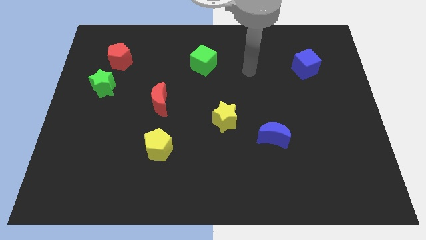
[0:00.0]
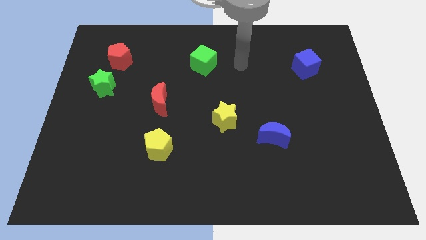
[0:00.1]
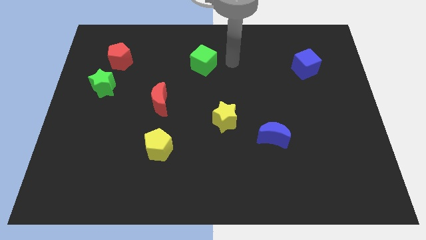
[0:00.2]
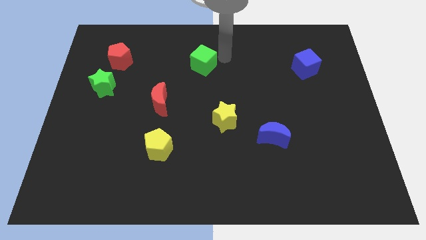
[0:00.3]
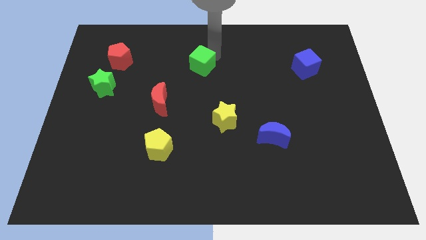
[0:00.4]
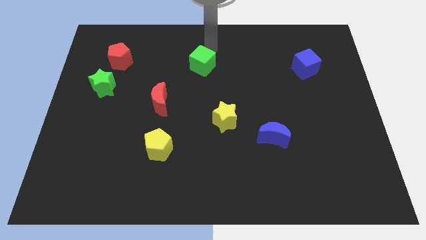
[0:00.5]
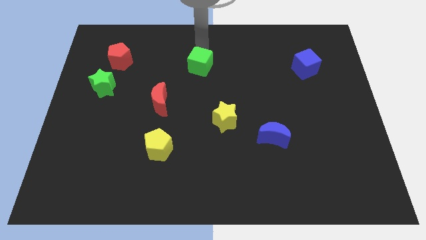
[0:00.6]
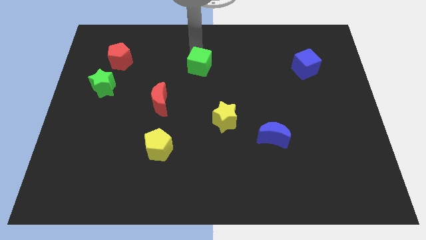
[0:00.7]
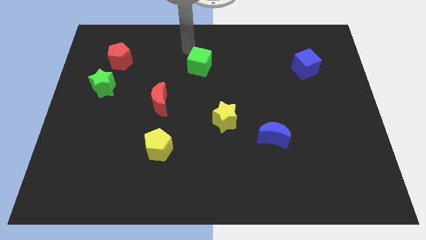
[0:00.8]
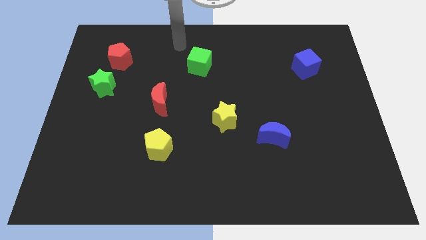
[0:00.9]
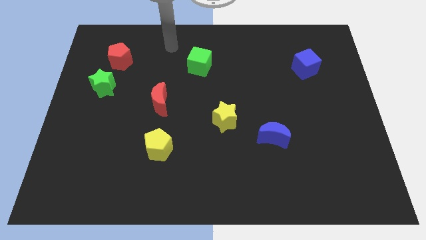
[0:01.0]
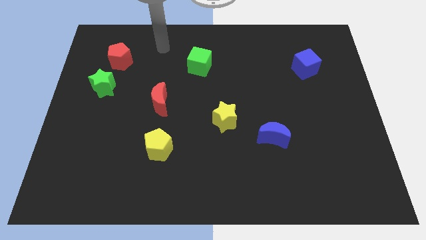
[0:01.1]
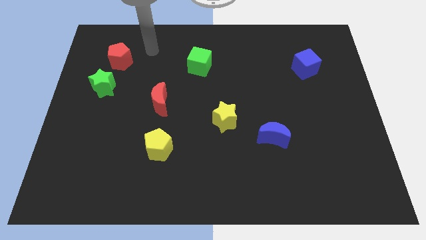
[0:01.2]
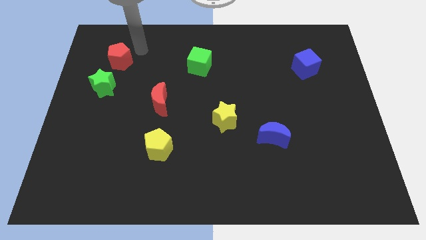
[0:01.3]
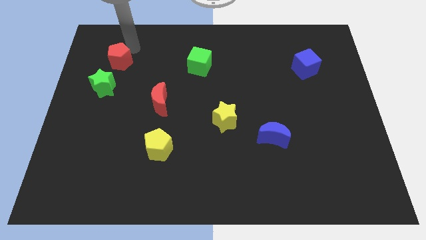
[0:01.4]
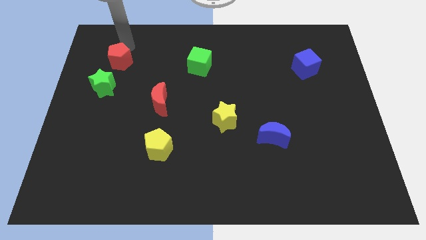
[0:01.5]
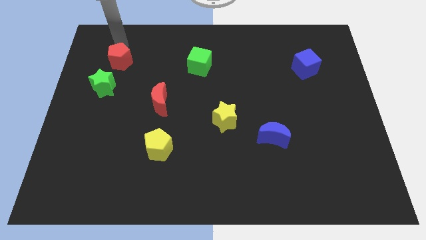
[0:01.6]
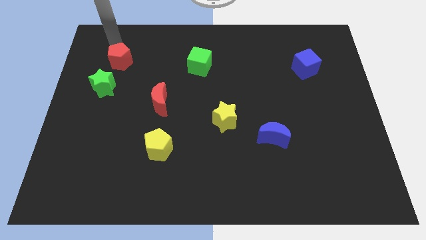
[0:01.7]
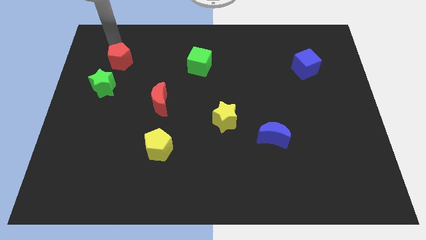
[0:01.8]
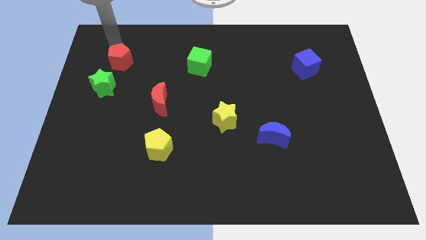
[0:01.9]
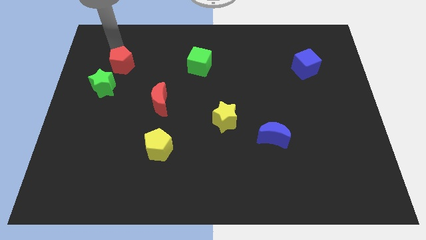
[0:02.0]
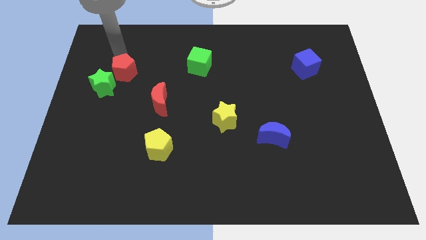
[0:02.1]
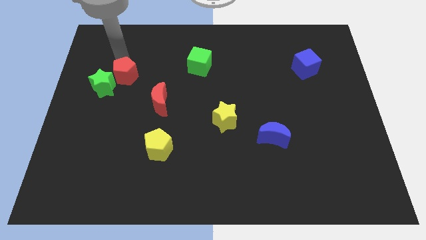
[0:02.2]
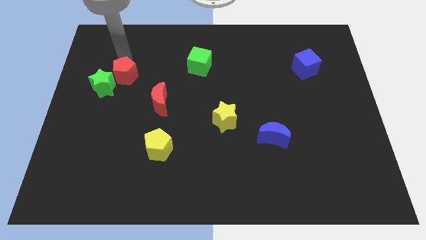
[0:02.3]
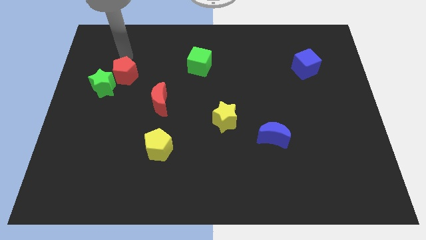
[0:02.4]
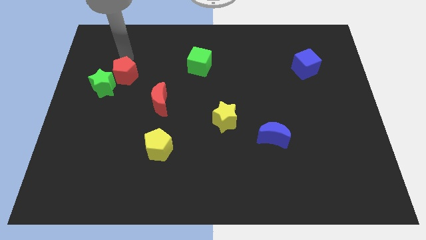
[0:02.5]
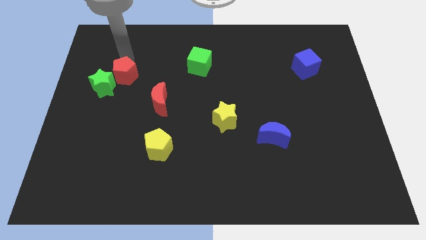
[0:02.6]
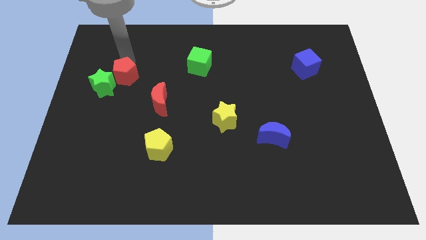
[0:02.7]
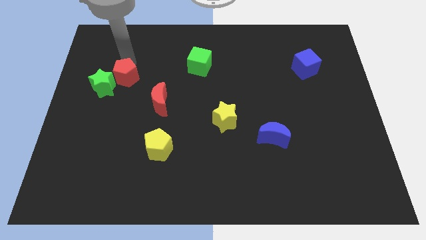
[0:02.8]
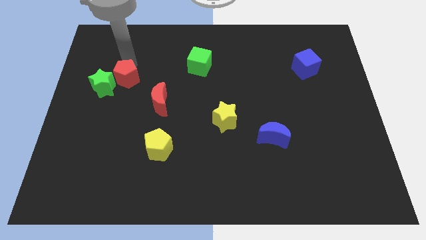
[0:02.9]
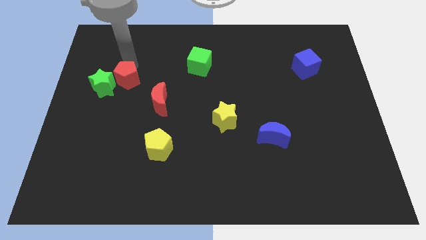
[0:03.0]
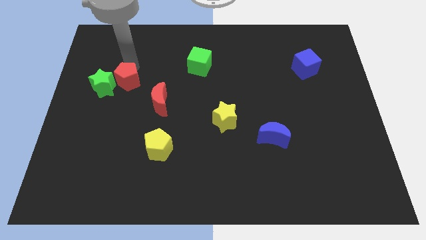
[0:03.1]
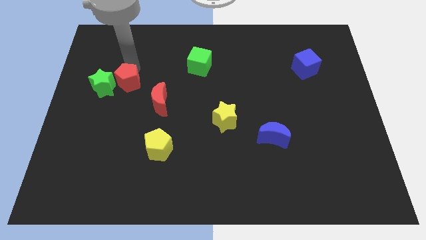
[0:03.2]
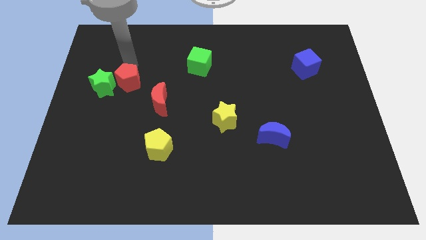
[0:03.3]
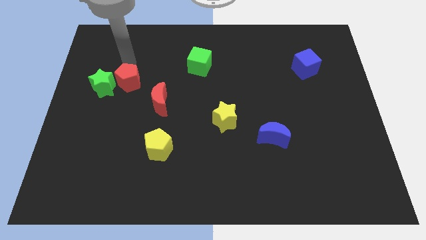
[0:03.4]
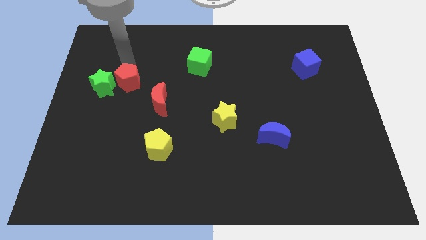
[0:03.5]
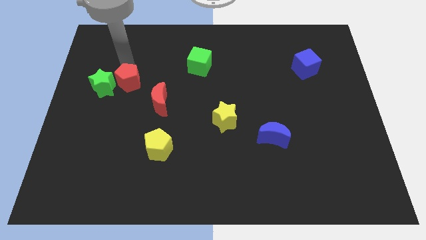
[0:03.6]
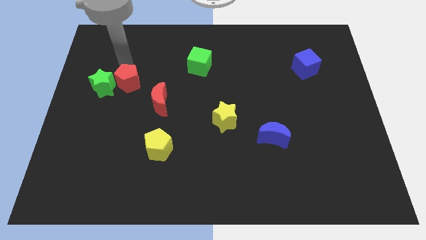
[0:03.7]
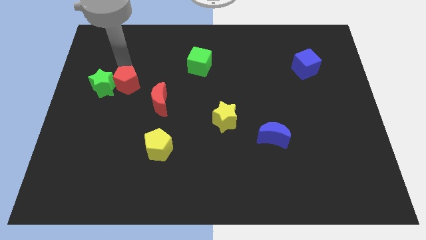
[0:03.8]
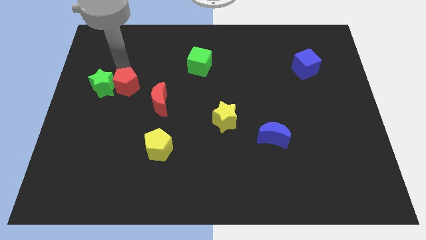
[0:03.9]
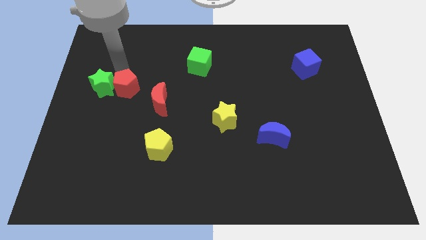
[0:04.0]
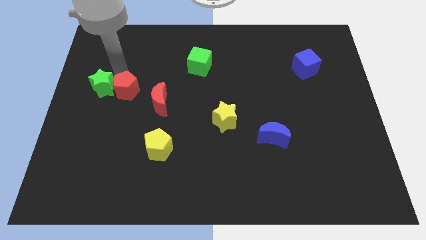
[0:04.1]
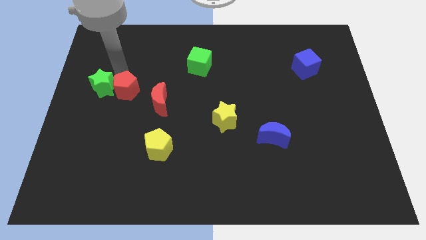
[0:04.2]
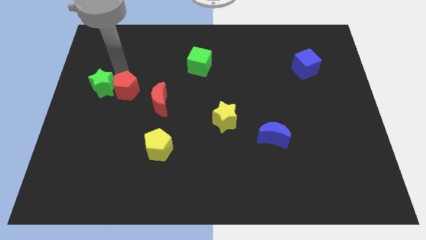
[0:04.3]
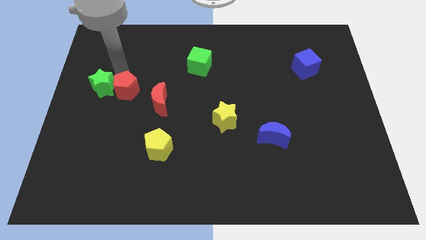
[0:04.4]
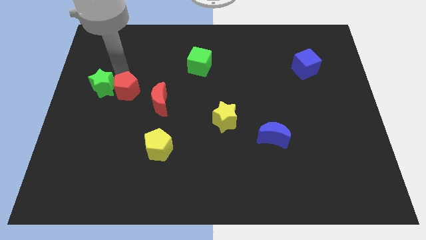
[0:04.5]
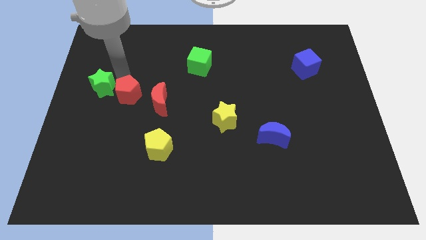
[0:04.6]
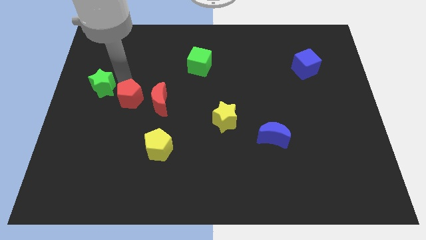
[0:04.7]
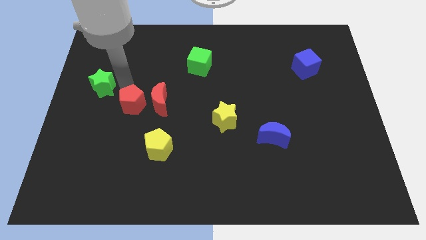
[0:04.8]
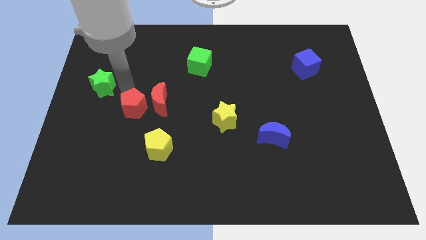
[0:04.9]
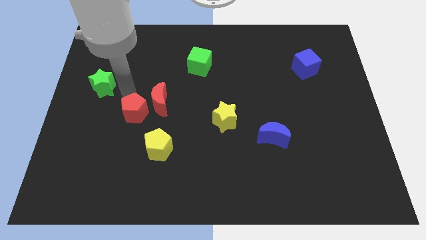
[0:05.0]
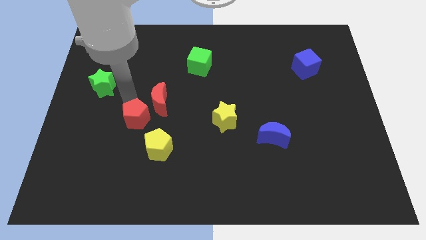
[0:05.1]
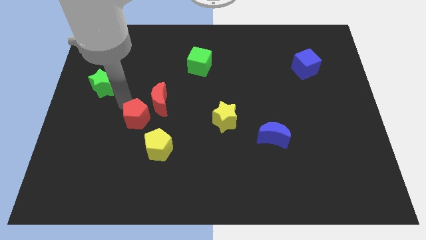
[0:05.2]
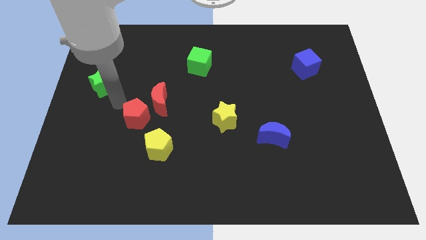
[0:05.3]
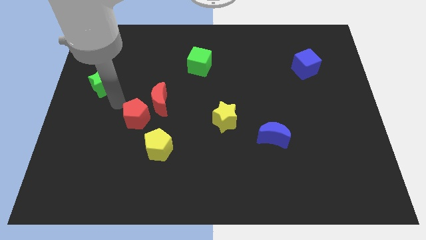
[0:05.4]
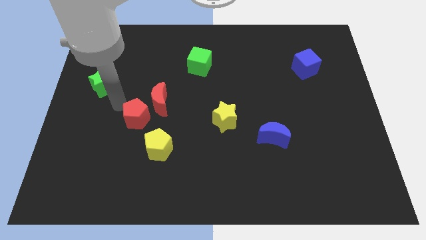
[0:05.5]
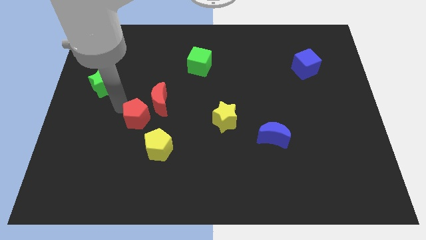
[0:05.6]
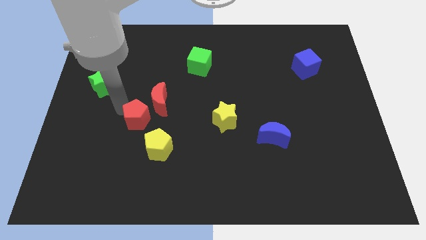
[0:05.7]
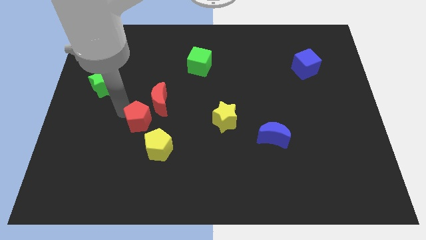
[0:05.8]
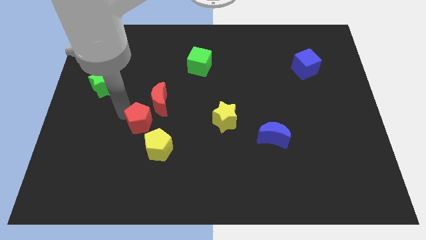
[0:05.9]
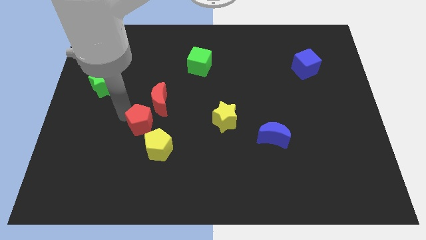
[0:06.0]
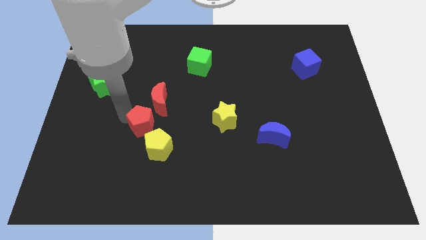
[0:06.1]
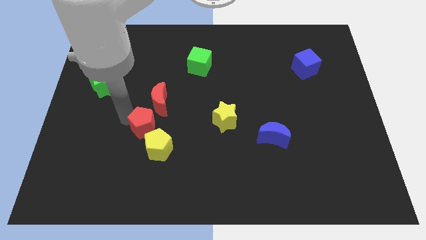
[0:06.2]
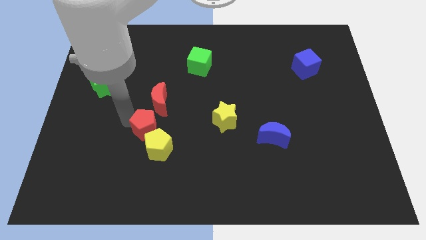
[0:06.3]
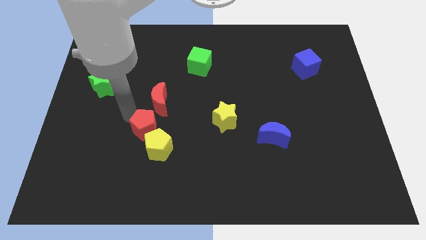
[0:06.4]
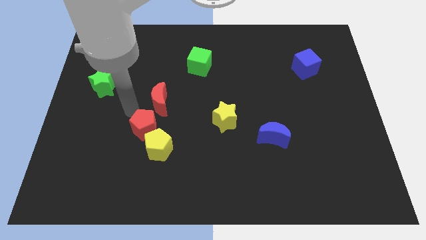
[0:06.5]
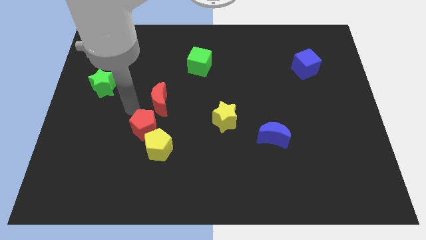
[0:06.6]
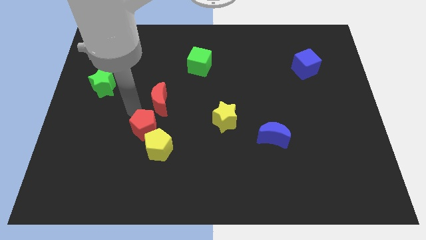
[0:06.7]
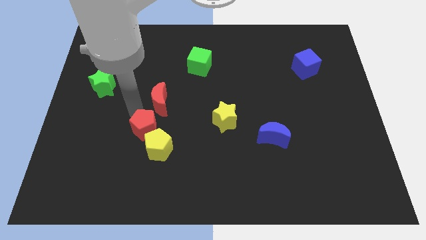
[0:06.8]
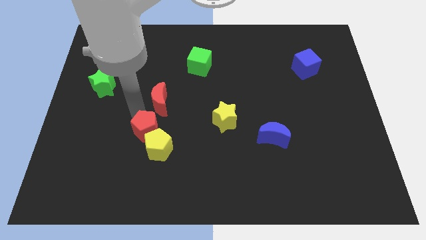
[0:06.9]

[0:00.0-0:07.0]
move the red pentagon to the yellow pentagon

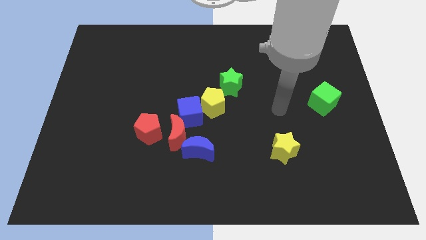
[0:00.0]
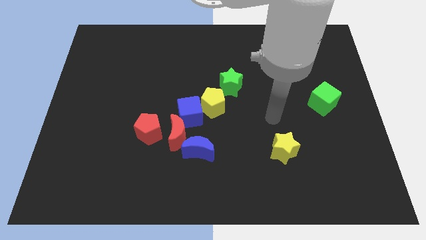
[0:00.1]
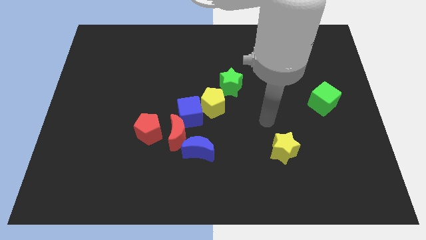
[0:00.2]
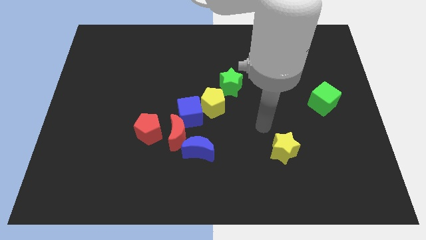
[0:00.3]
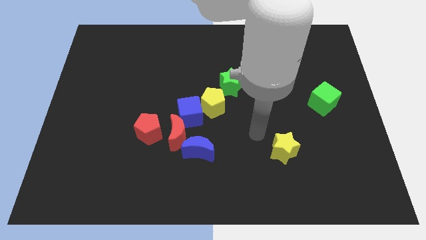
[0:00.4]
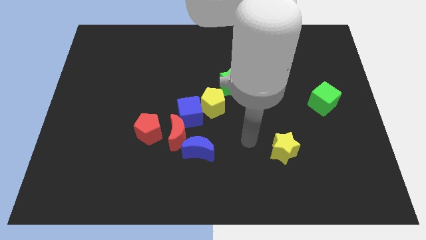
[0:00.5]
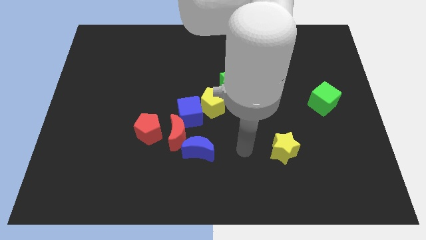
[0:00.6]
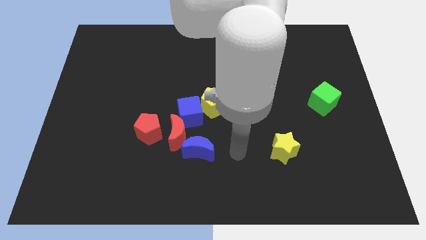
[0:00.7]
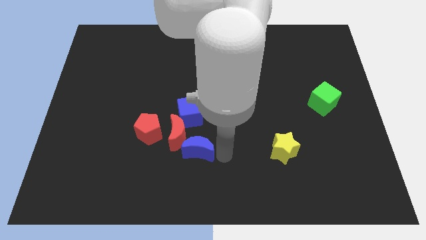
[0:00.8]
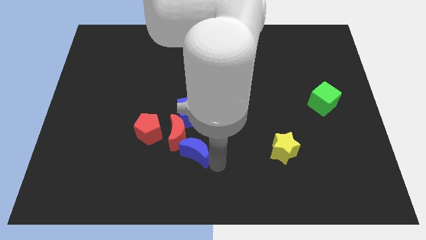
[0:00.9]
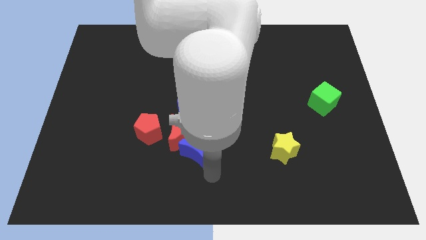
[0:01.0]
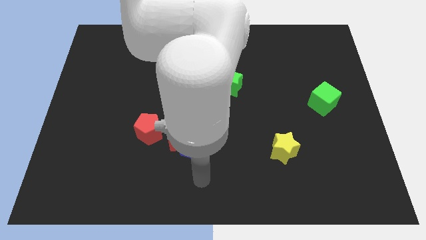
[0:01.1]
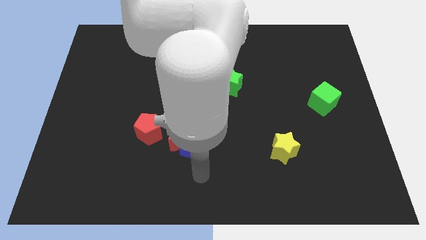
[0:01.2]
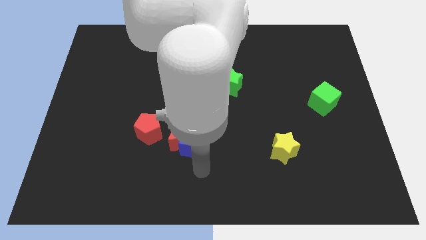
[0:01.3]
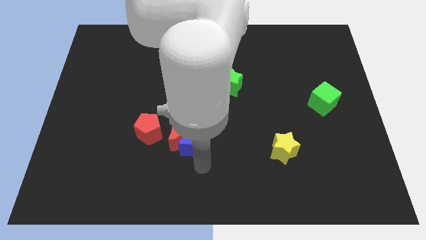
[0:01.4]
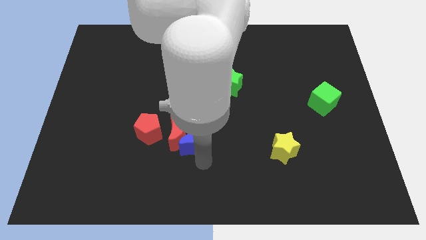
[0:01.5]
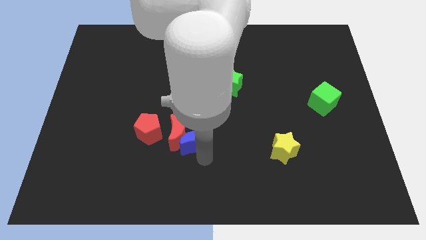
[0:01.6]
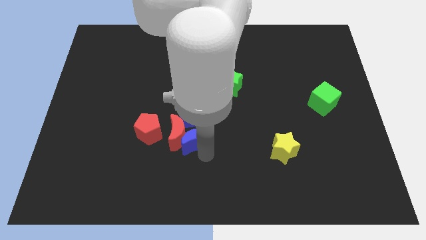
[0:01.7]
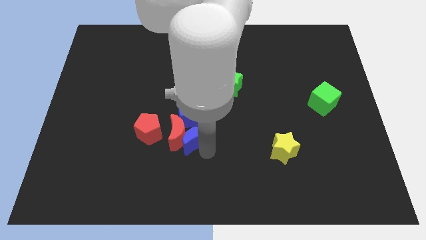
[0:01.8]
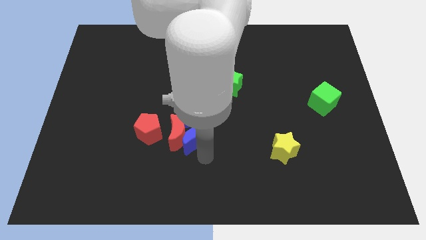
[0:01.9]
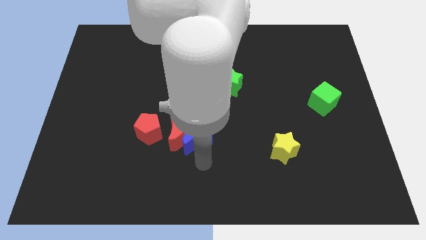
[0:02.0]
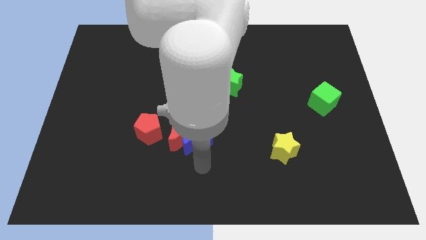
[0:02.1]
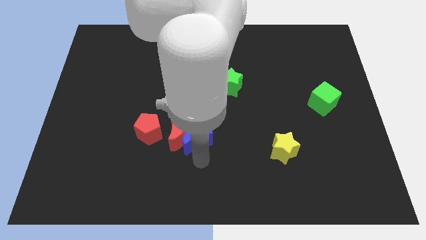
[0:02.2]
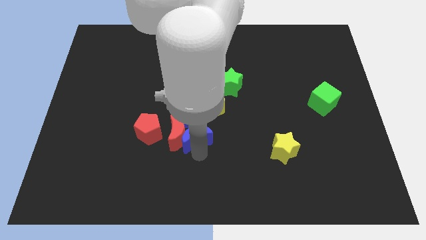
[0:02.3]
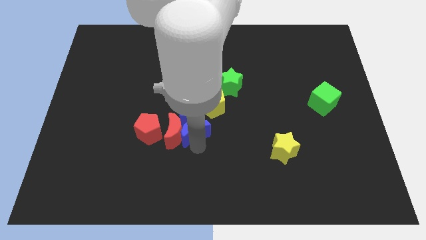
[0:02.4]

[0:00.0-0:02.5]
push the blue moon to the blue cube
